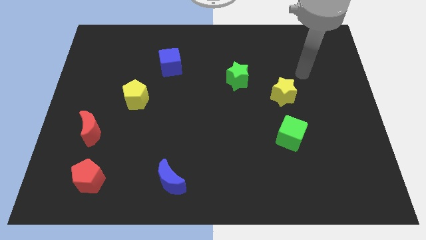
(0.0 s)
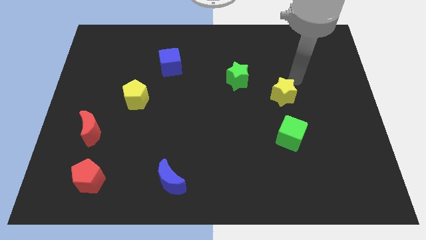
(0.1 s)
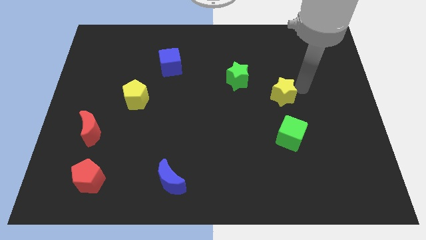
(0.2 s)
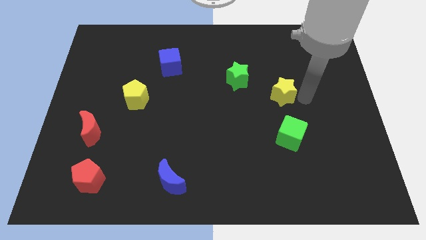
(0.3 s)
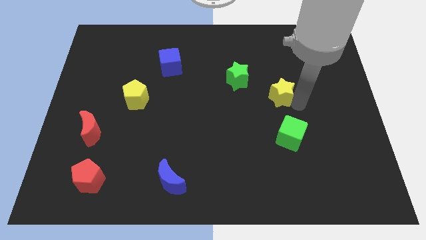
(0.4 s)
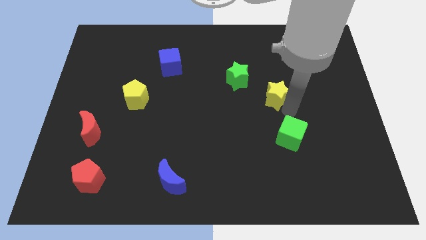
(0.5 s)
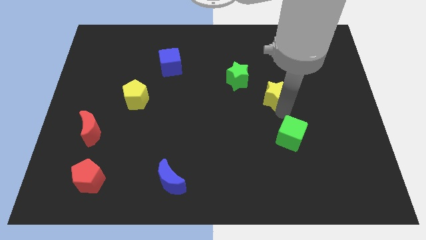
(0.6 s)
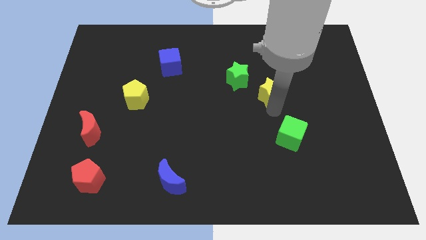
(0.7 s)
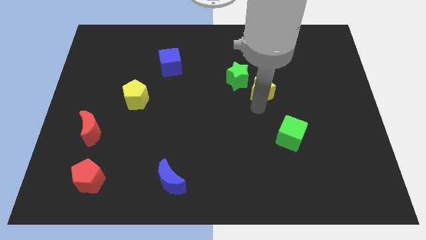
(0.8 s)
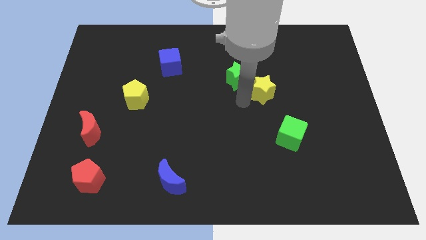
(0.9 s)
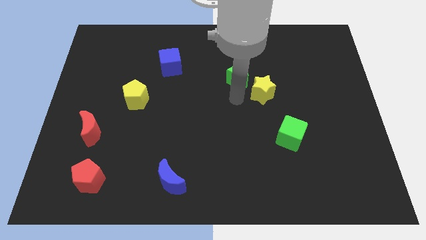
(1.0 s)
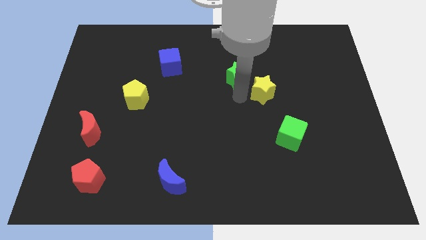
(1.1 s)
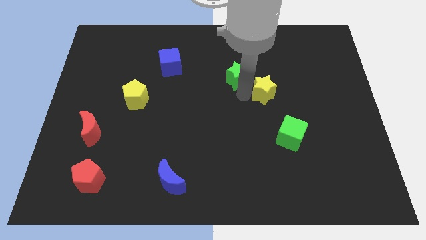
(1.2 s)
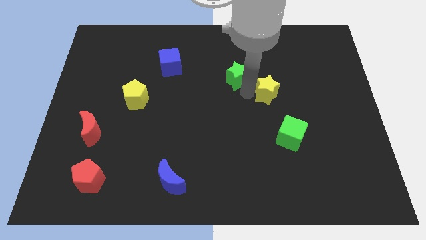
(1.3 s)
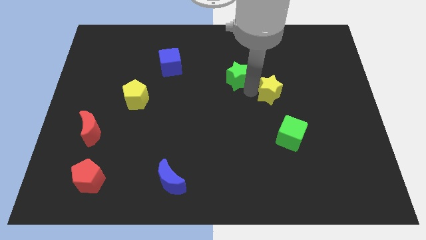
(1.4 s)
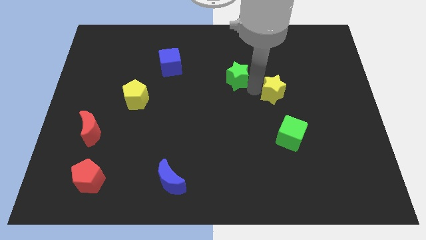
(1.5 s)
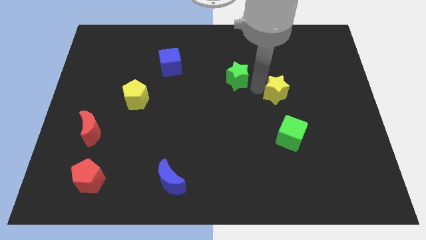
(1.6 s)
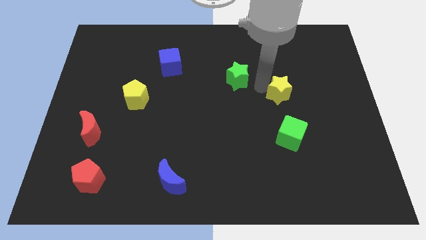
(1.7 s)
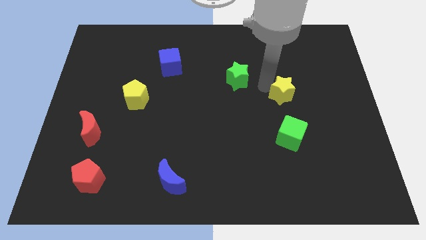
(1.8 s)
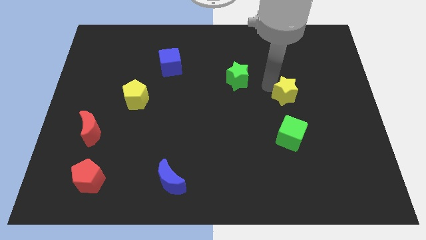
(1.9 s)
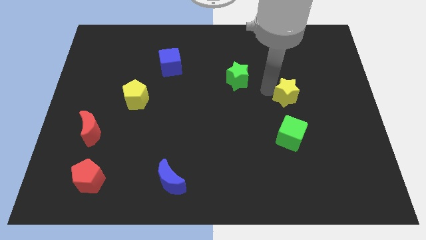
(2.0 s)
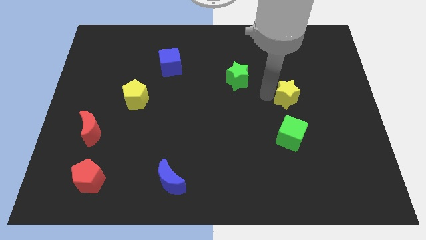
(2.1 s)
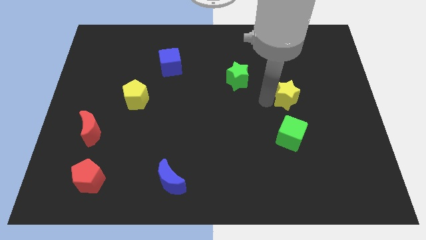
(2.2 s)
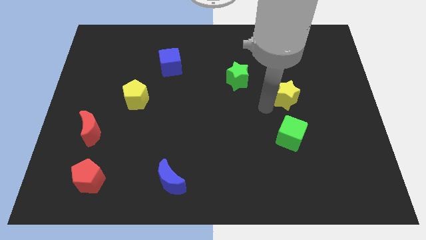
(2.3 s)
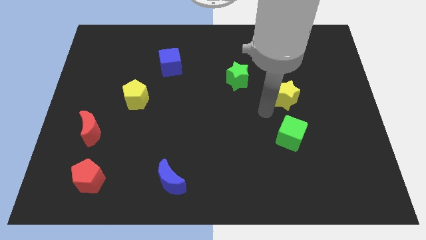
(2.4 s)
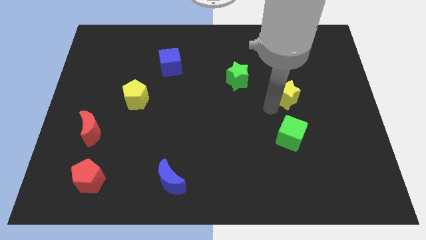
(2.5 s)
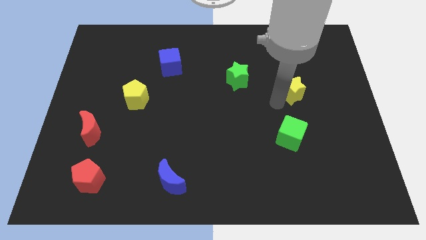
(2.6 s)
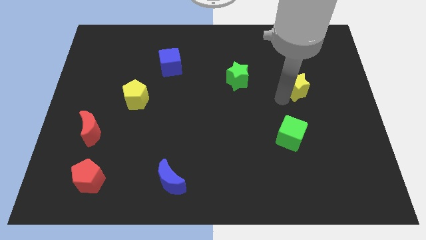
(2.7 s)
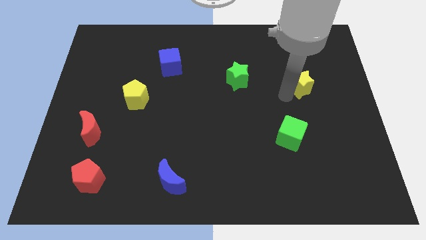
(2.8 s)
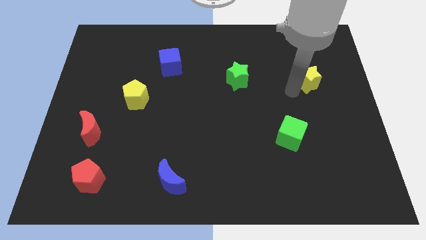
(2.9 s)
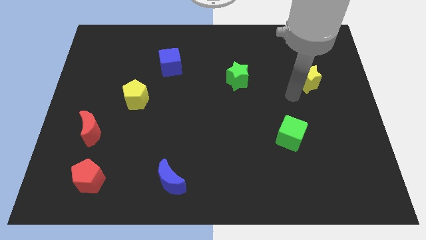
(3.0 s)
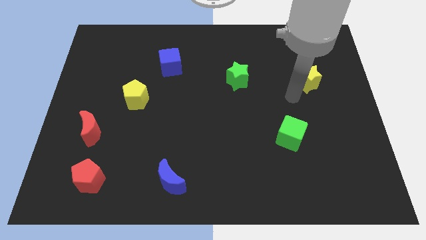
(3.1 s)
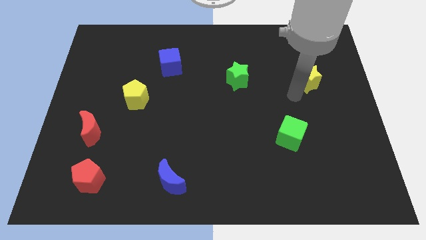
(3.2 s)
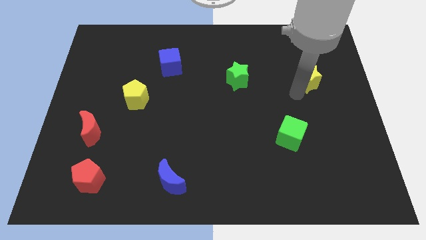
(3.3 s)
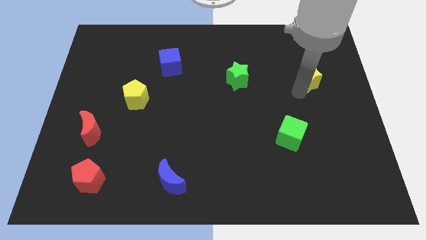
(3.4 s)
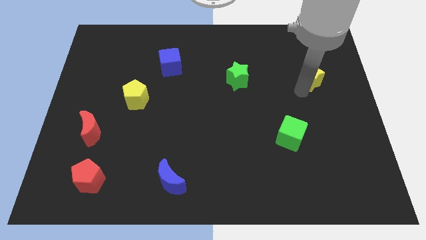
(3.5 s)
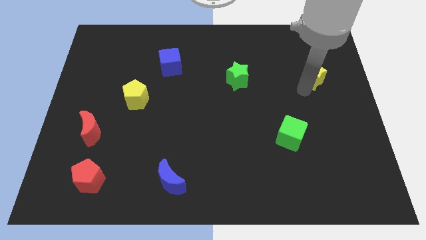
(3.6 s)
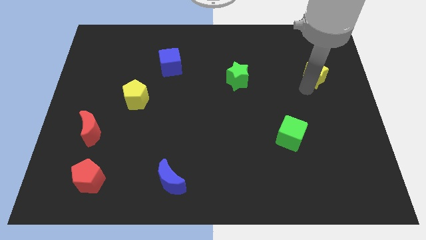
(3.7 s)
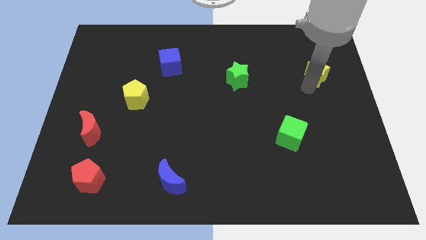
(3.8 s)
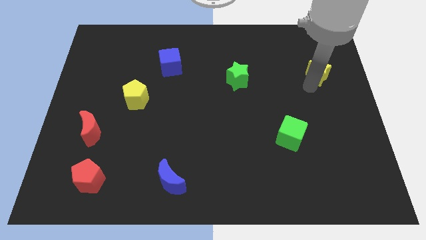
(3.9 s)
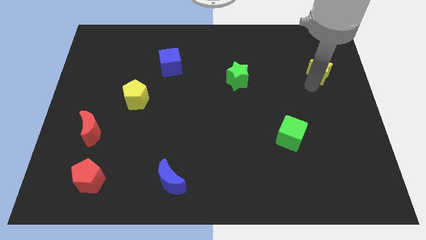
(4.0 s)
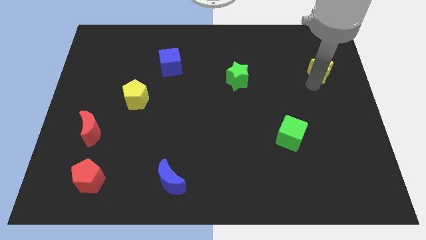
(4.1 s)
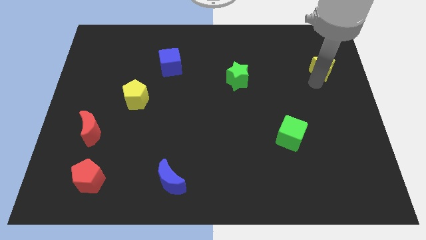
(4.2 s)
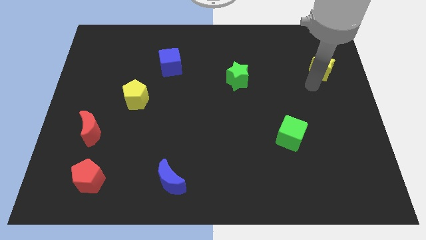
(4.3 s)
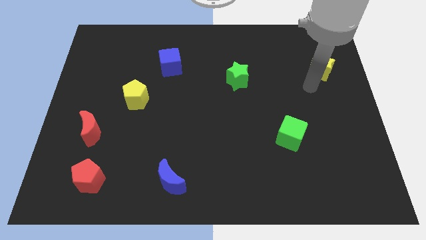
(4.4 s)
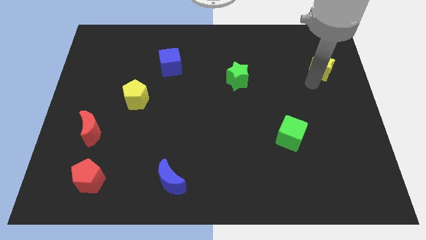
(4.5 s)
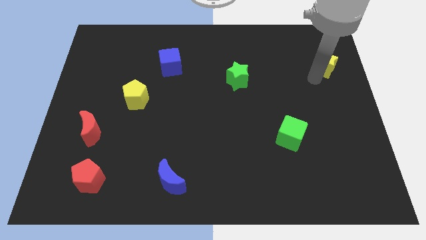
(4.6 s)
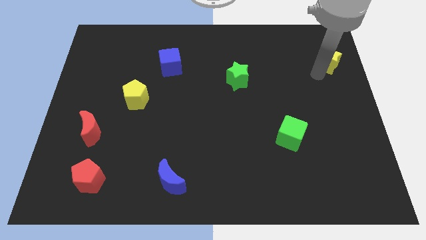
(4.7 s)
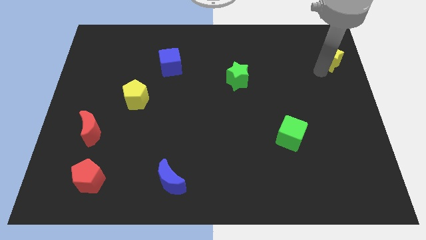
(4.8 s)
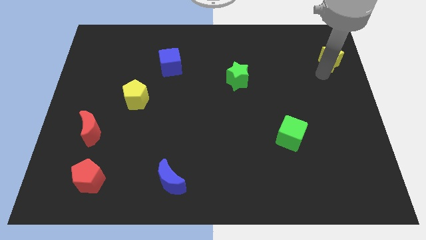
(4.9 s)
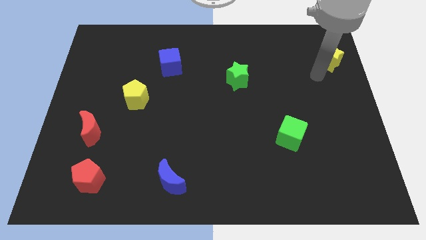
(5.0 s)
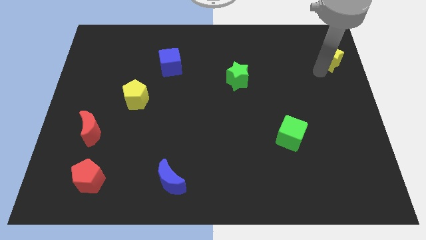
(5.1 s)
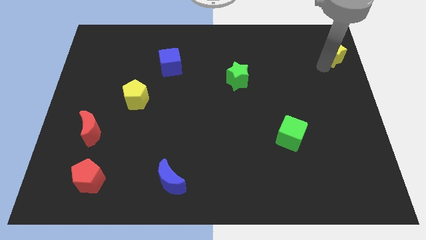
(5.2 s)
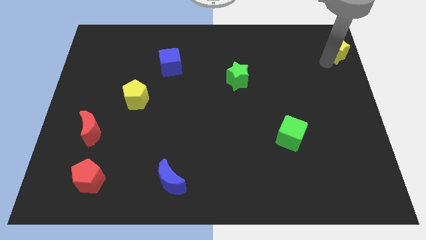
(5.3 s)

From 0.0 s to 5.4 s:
put the yellow star to the upper right corner
